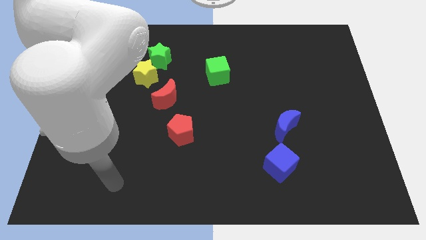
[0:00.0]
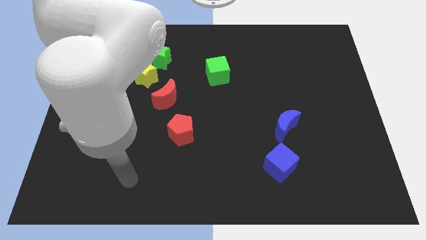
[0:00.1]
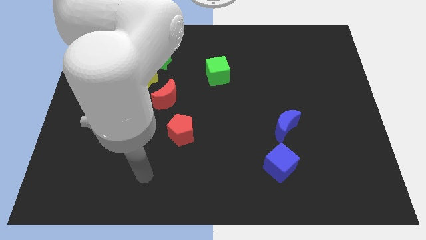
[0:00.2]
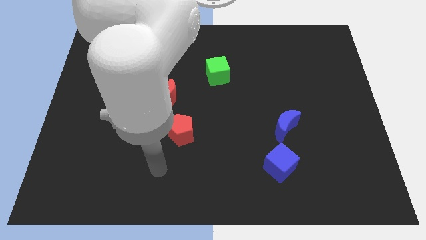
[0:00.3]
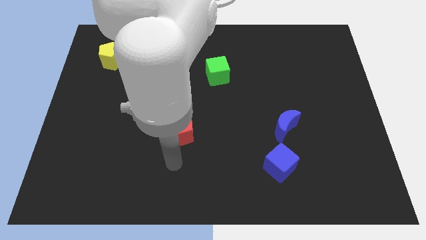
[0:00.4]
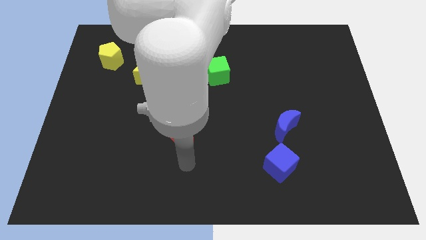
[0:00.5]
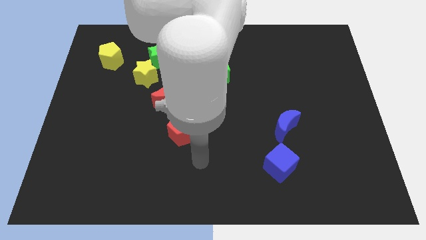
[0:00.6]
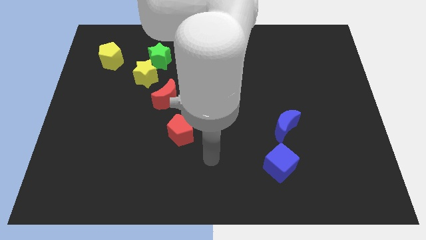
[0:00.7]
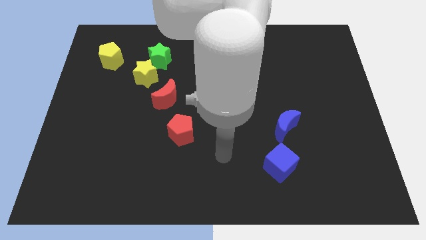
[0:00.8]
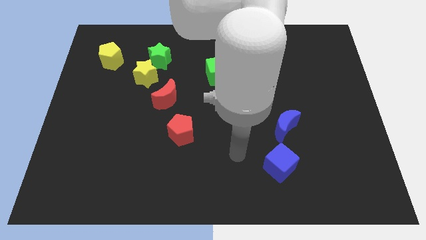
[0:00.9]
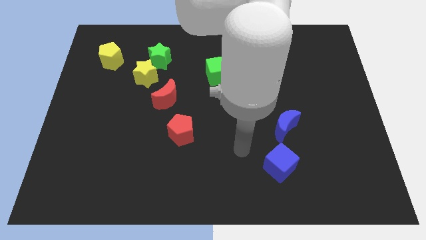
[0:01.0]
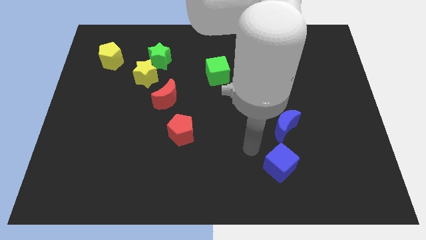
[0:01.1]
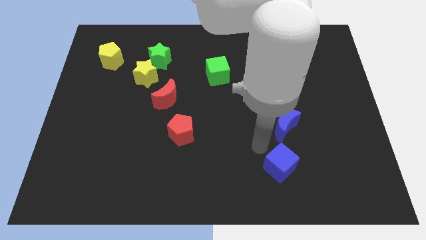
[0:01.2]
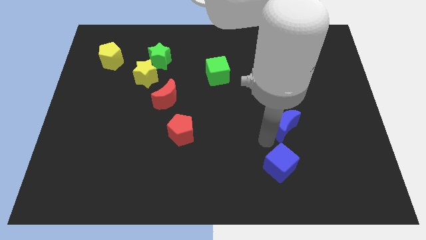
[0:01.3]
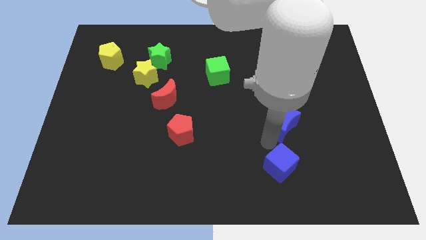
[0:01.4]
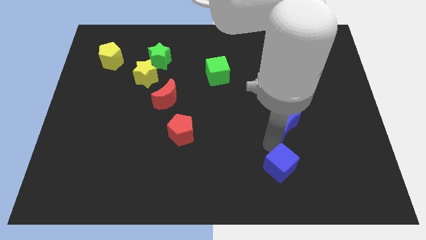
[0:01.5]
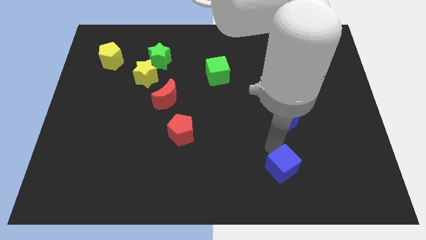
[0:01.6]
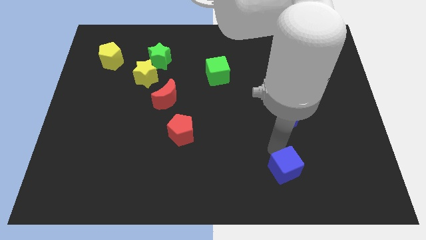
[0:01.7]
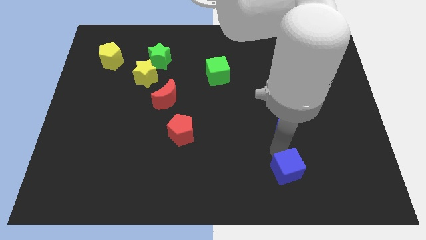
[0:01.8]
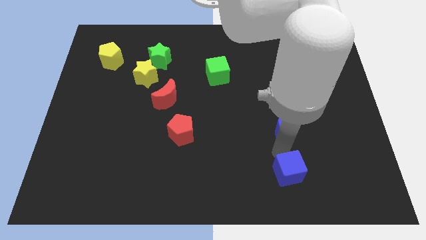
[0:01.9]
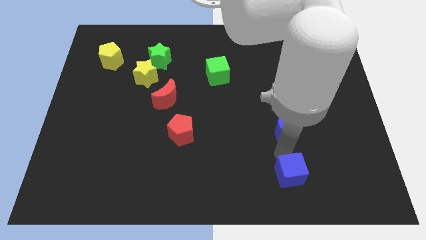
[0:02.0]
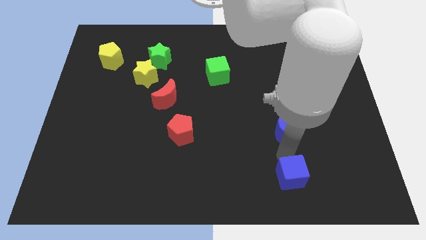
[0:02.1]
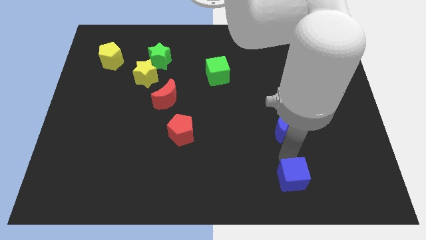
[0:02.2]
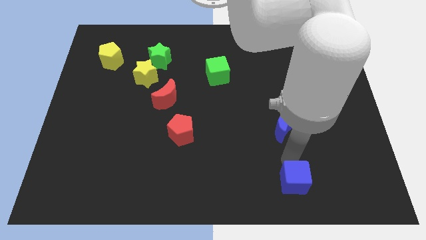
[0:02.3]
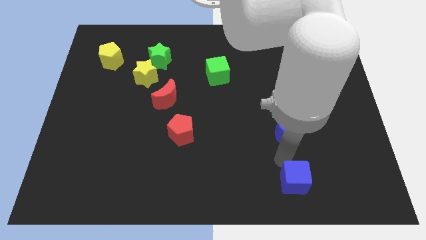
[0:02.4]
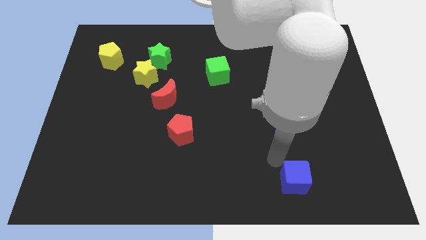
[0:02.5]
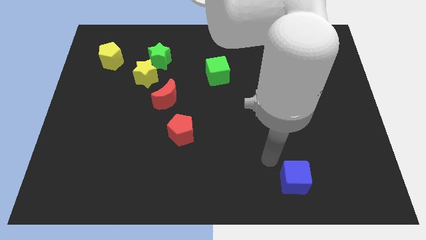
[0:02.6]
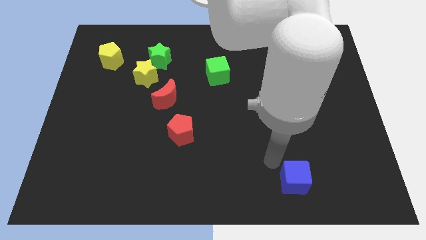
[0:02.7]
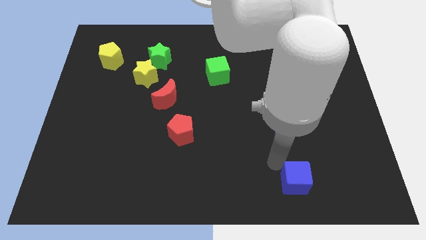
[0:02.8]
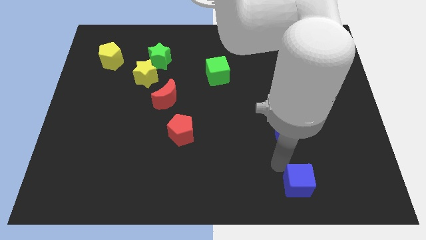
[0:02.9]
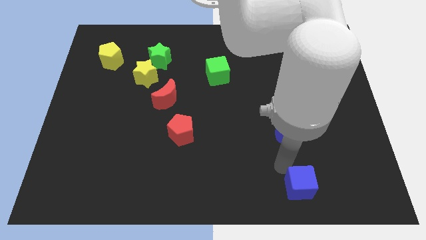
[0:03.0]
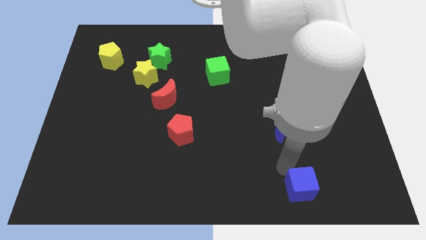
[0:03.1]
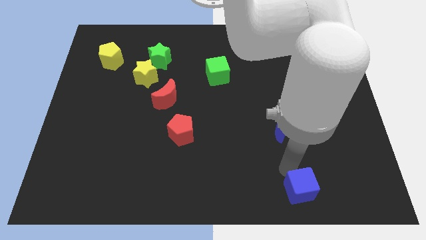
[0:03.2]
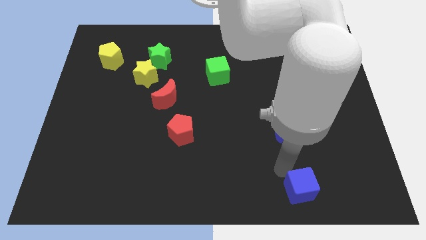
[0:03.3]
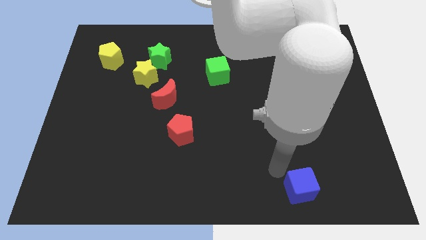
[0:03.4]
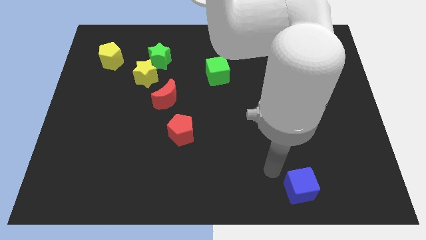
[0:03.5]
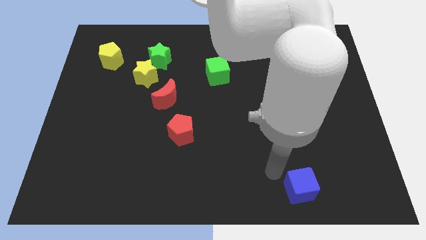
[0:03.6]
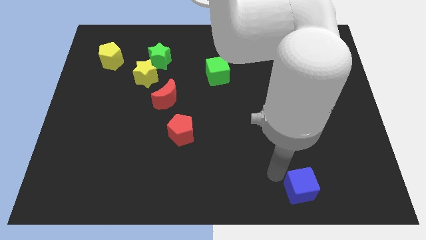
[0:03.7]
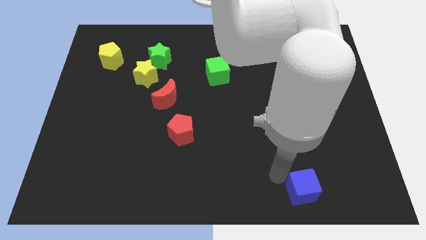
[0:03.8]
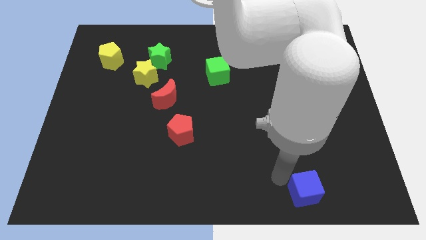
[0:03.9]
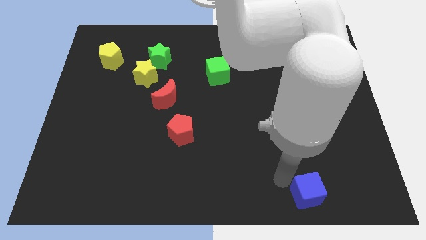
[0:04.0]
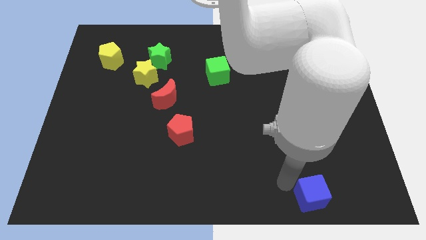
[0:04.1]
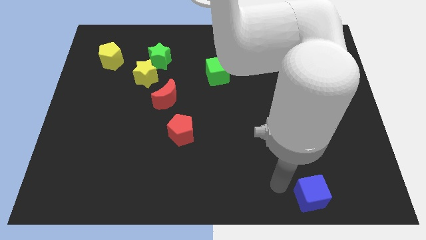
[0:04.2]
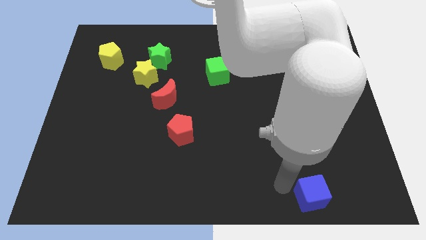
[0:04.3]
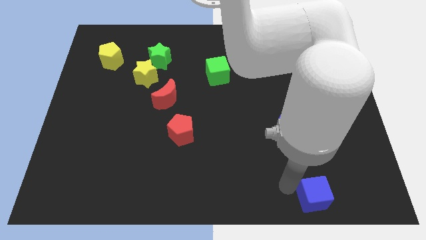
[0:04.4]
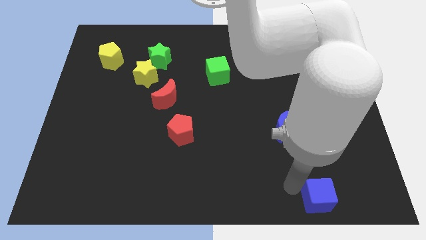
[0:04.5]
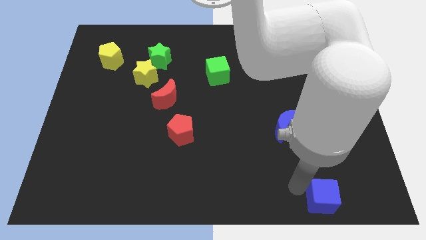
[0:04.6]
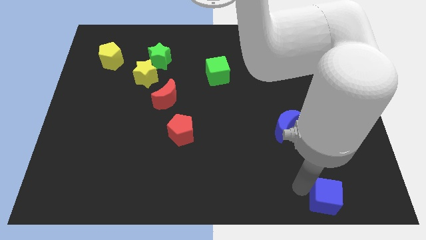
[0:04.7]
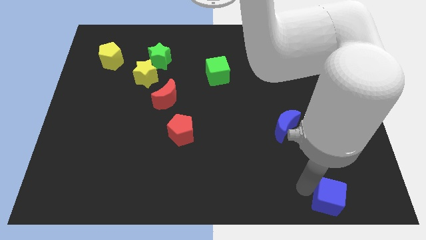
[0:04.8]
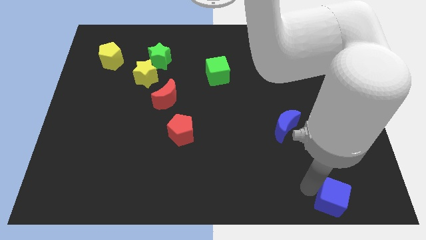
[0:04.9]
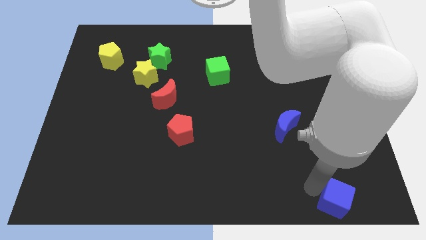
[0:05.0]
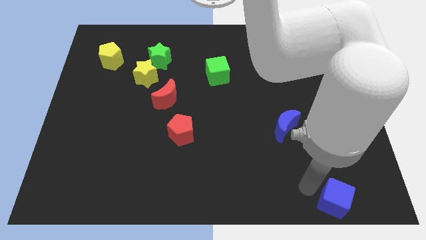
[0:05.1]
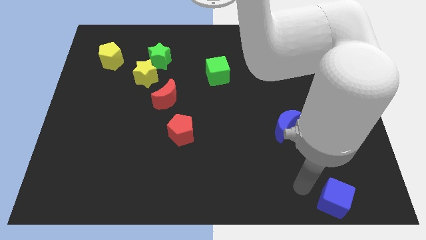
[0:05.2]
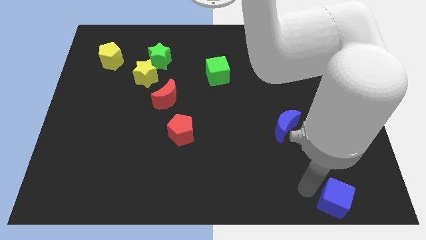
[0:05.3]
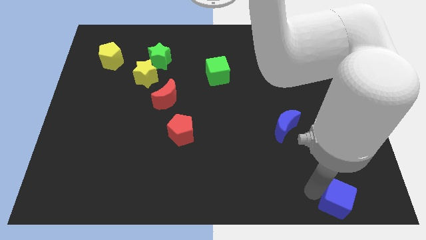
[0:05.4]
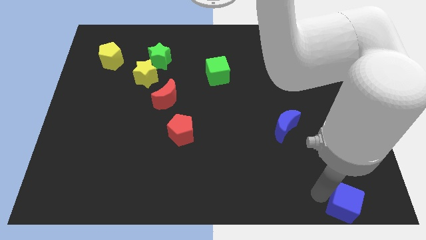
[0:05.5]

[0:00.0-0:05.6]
slide the blue cube to the bottom right corner

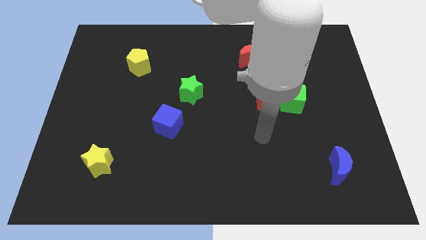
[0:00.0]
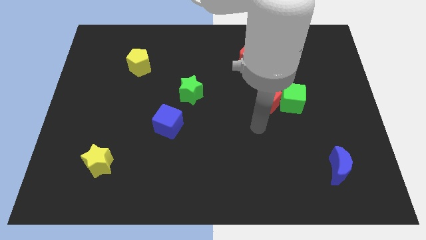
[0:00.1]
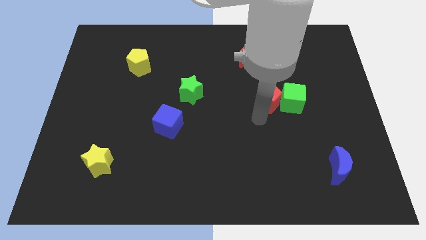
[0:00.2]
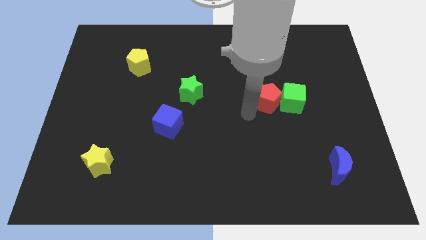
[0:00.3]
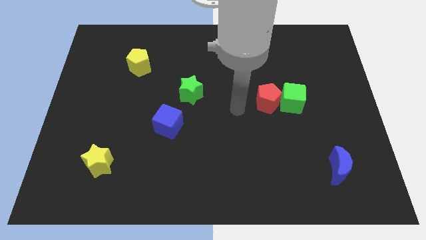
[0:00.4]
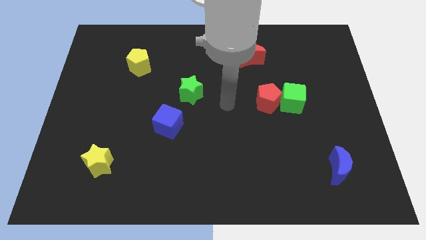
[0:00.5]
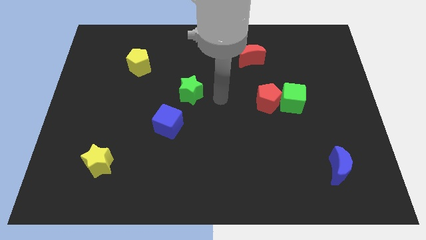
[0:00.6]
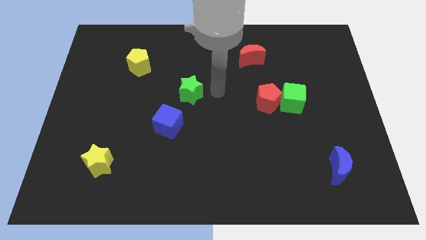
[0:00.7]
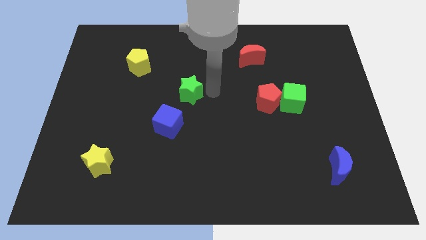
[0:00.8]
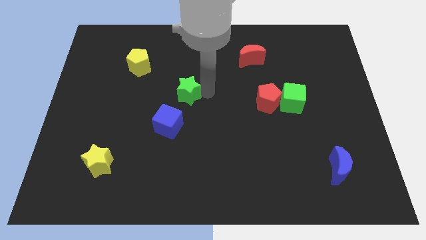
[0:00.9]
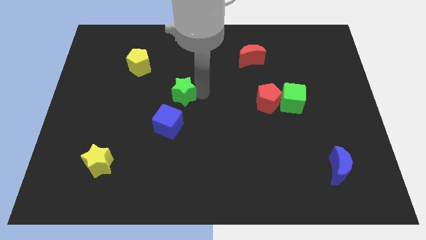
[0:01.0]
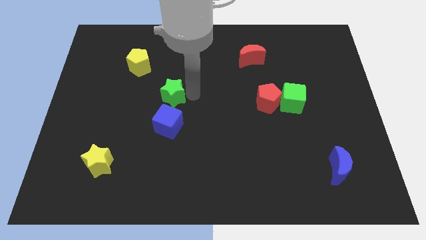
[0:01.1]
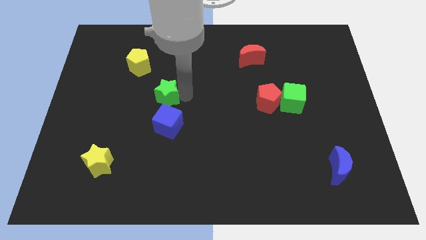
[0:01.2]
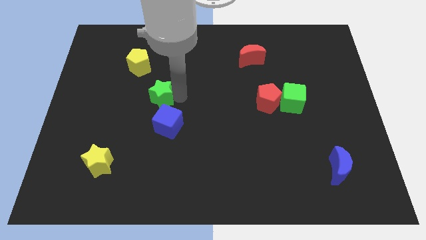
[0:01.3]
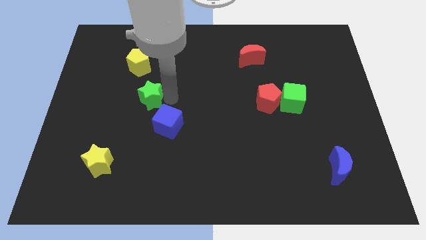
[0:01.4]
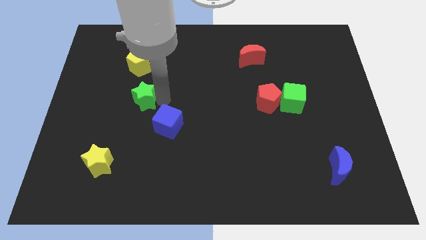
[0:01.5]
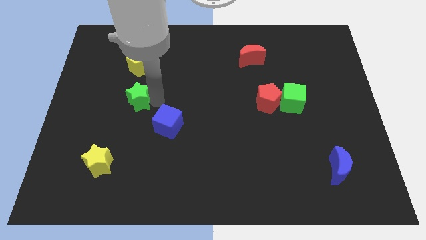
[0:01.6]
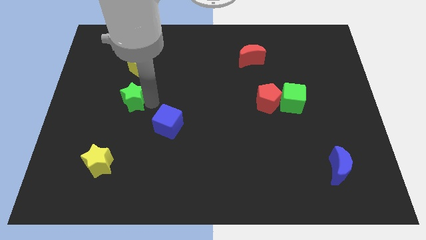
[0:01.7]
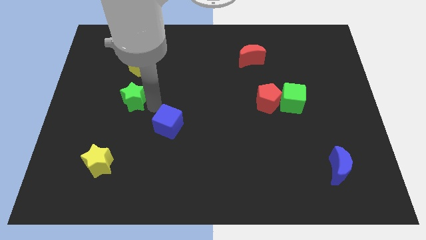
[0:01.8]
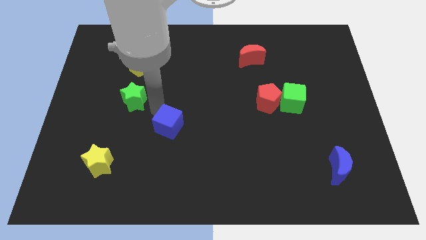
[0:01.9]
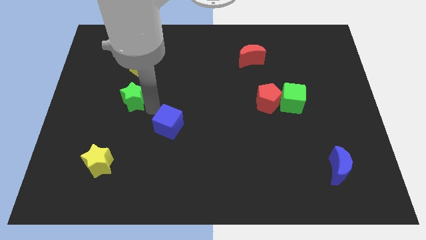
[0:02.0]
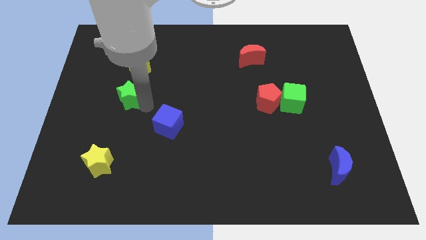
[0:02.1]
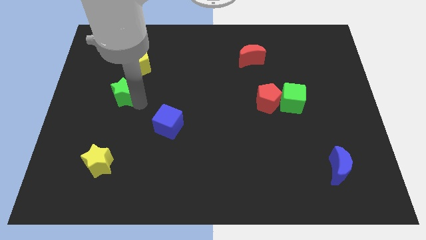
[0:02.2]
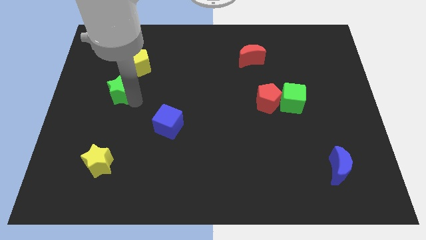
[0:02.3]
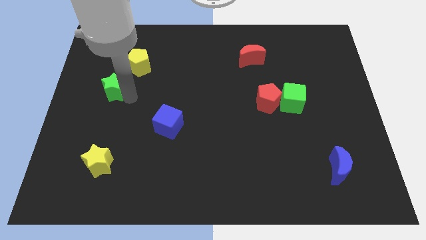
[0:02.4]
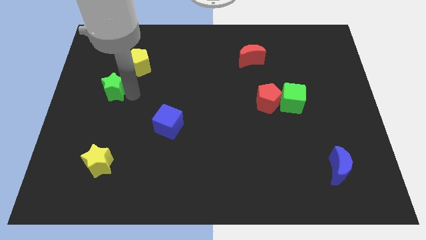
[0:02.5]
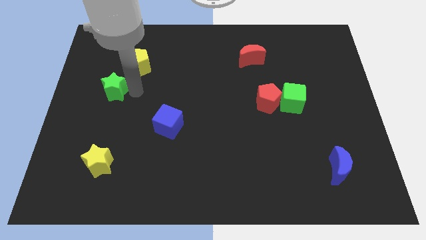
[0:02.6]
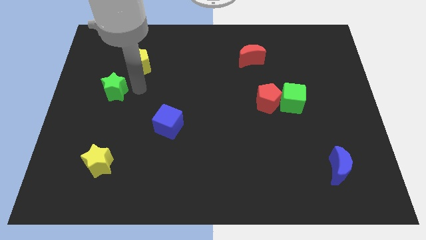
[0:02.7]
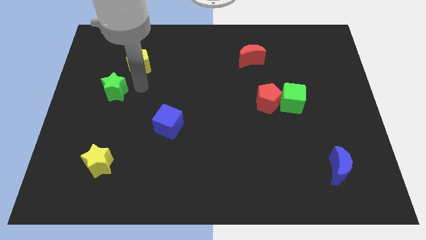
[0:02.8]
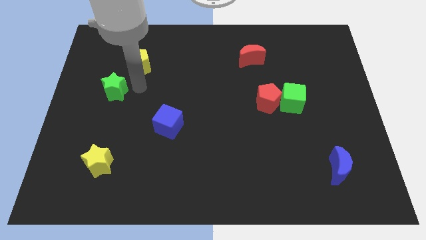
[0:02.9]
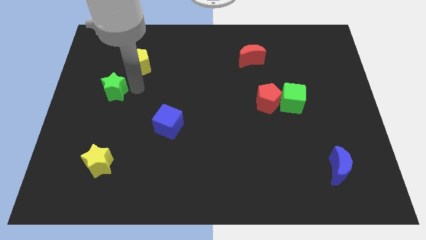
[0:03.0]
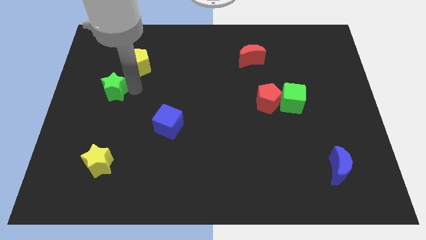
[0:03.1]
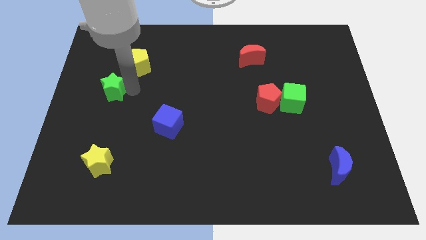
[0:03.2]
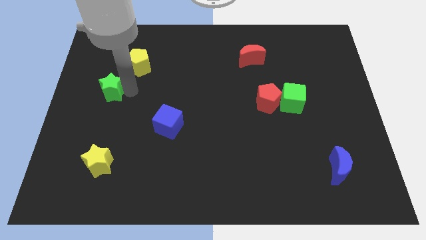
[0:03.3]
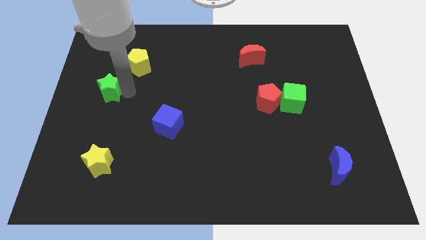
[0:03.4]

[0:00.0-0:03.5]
slide the green star to the center left
